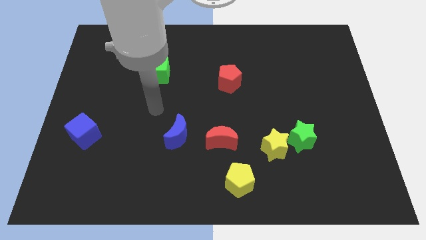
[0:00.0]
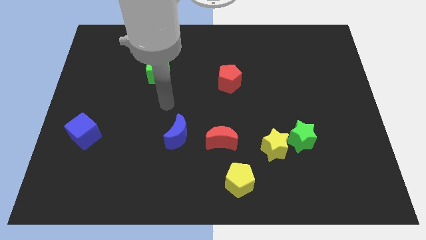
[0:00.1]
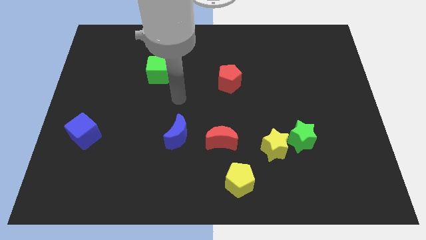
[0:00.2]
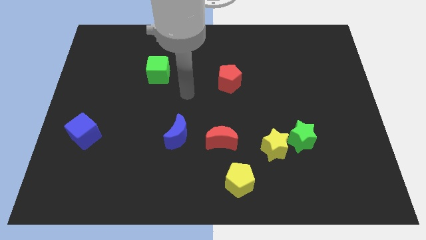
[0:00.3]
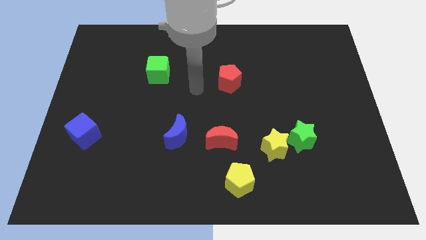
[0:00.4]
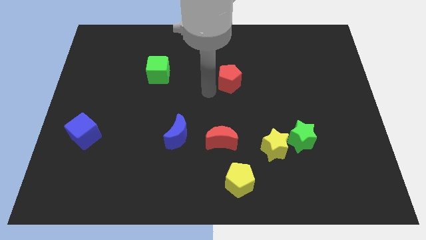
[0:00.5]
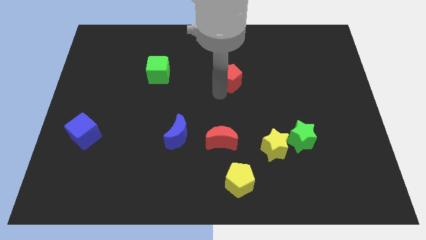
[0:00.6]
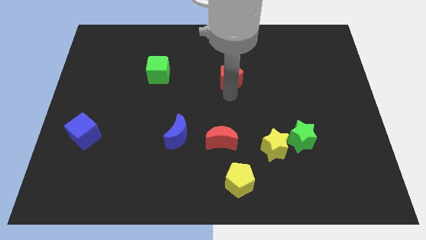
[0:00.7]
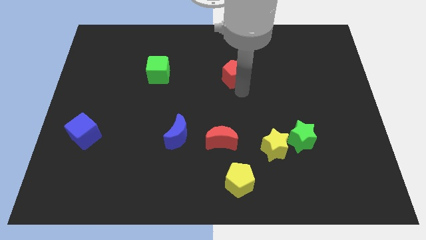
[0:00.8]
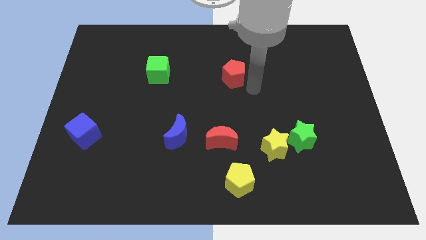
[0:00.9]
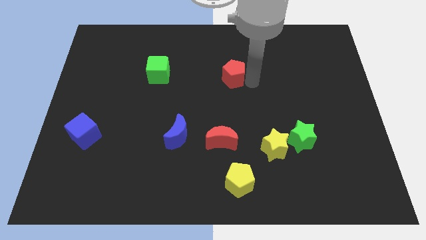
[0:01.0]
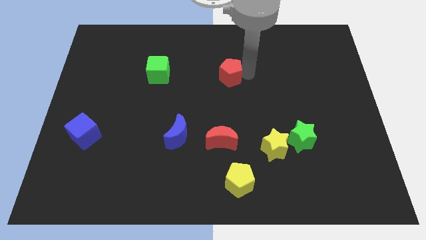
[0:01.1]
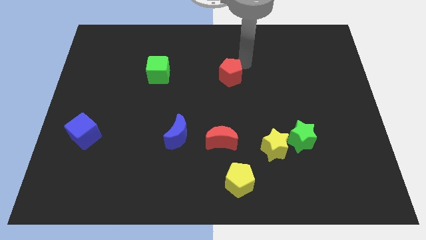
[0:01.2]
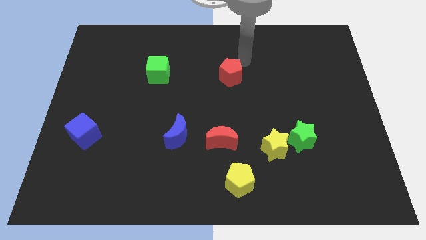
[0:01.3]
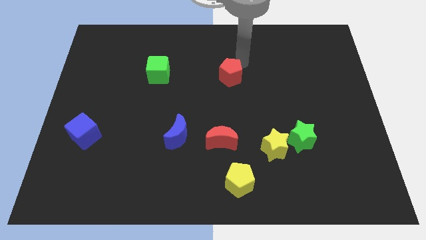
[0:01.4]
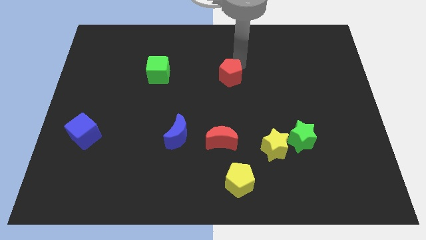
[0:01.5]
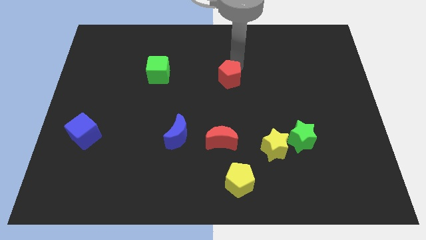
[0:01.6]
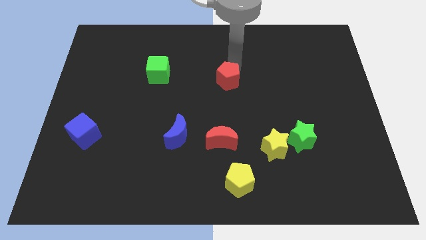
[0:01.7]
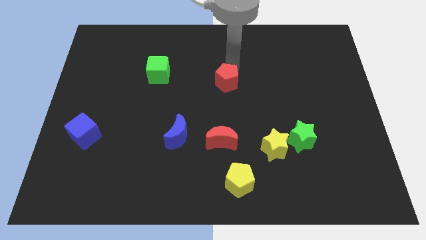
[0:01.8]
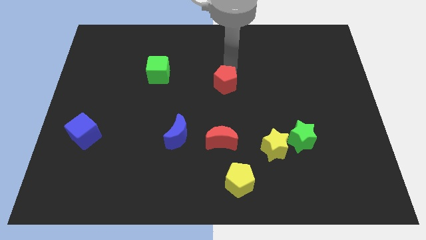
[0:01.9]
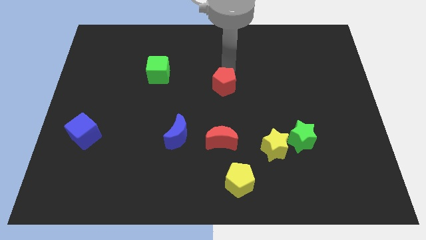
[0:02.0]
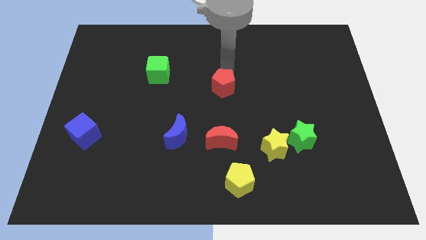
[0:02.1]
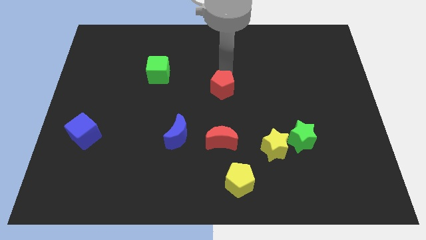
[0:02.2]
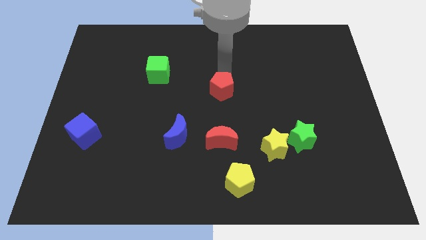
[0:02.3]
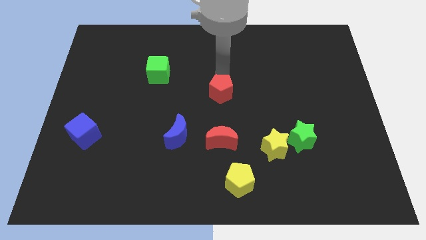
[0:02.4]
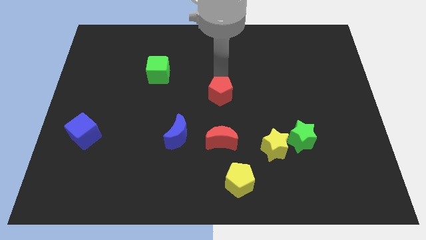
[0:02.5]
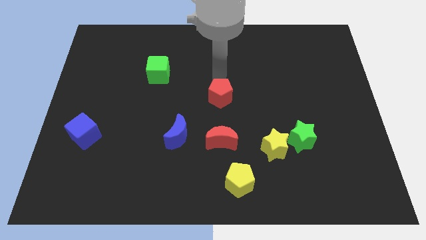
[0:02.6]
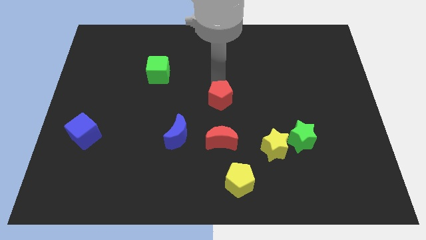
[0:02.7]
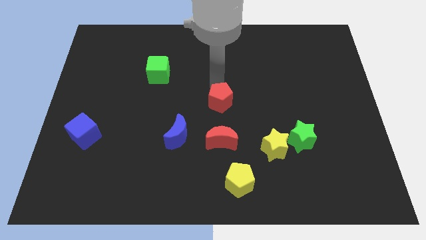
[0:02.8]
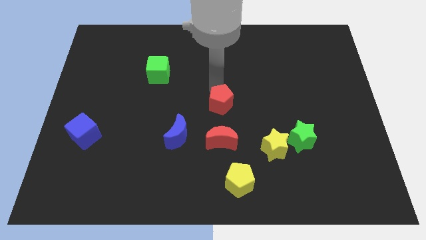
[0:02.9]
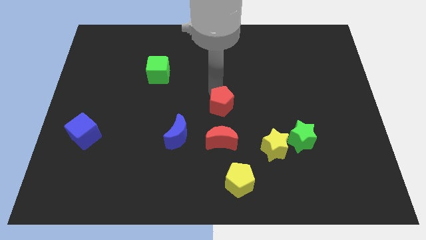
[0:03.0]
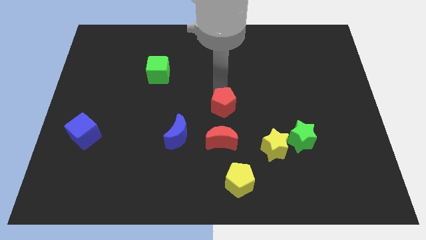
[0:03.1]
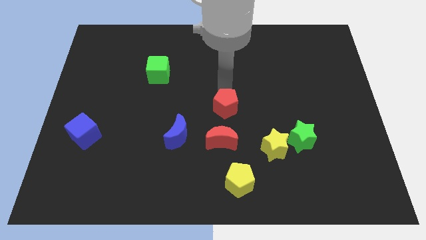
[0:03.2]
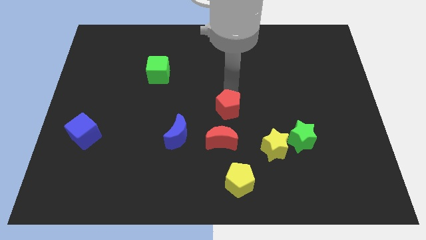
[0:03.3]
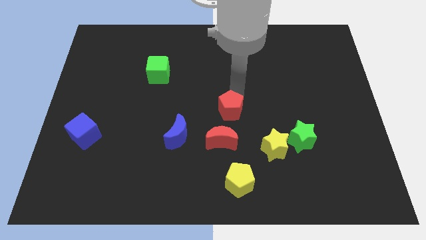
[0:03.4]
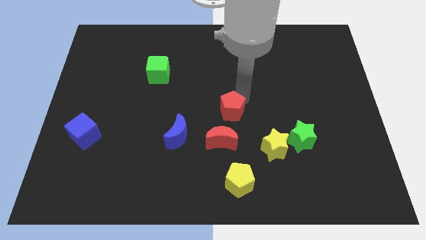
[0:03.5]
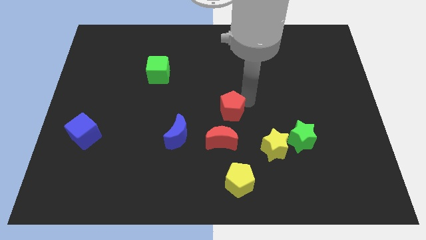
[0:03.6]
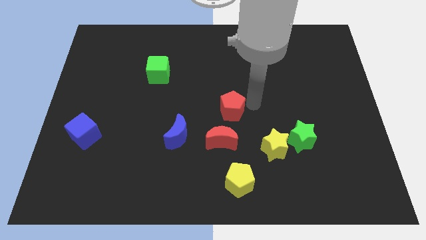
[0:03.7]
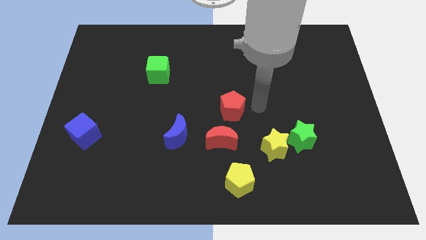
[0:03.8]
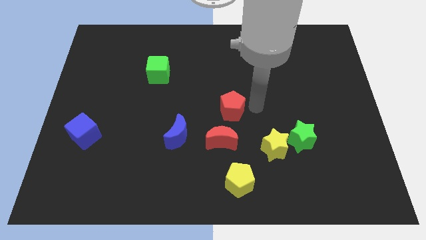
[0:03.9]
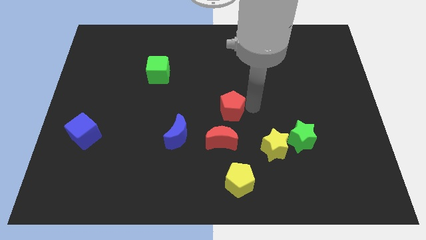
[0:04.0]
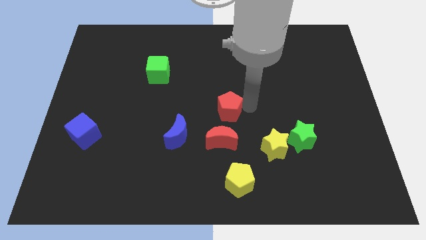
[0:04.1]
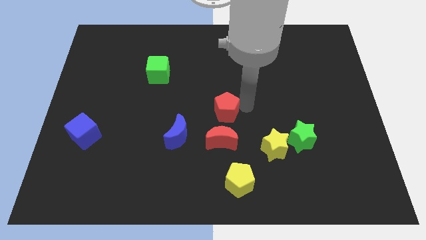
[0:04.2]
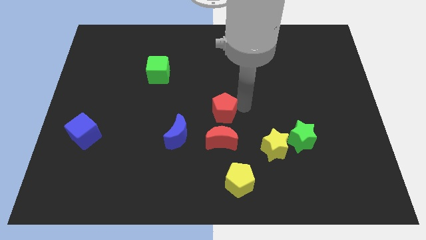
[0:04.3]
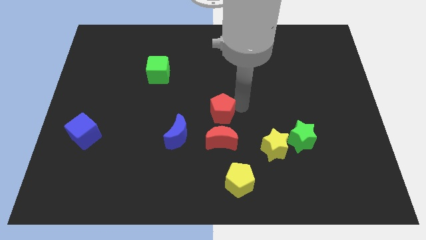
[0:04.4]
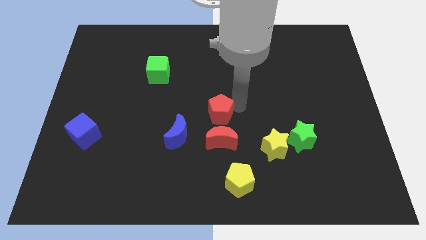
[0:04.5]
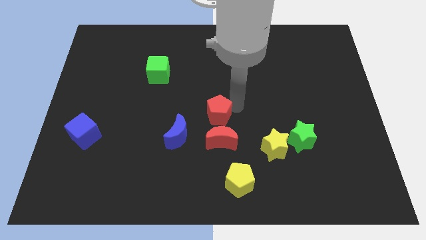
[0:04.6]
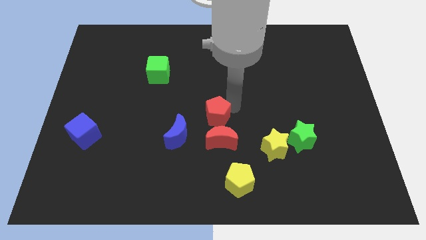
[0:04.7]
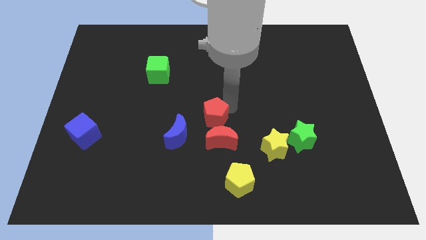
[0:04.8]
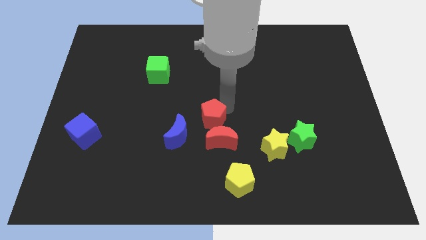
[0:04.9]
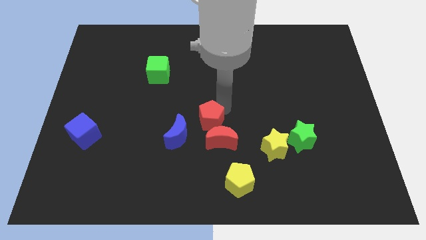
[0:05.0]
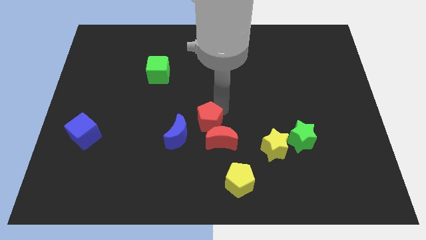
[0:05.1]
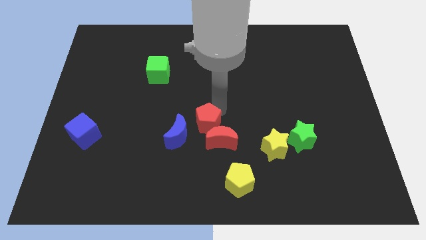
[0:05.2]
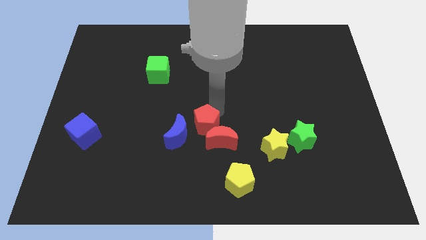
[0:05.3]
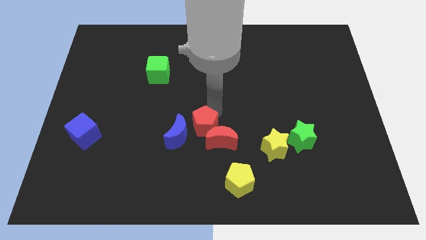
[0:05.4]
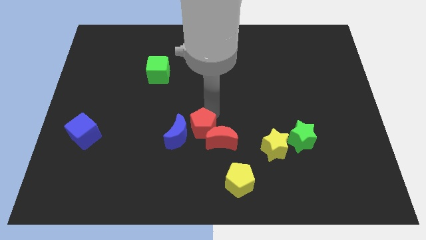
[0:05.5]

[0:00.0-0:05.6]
push the red pentagon towards the blue moon

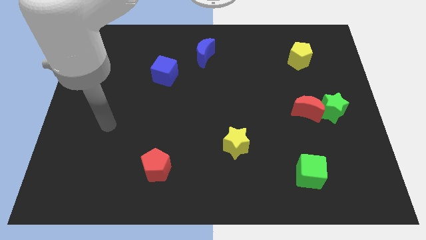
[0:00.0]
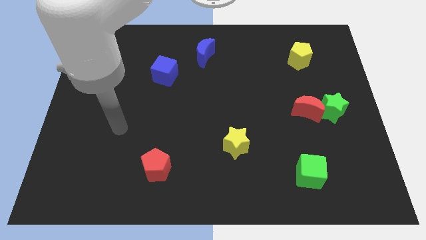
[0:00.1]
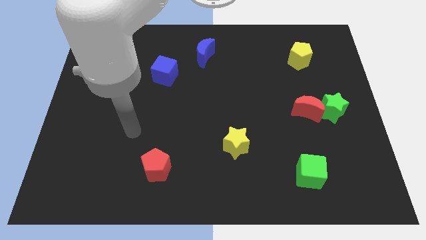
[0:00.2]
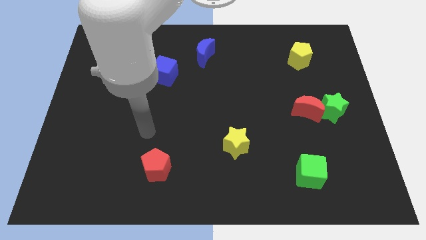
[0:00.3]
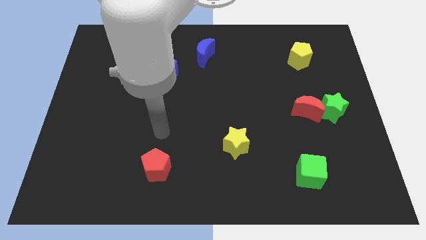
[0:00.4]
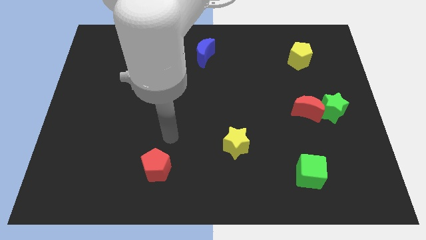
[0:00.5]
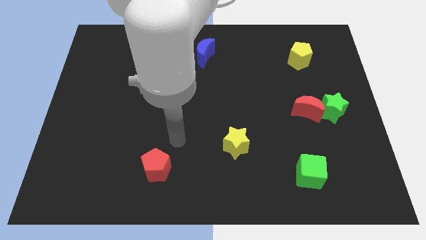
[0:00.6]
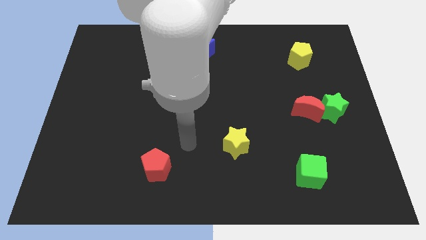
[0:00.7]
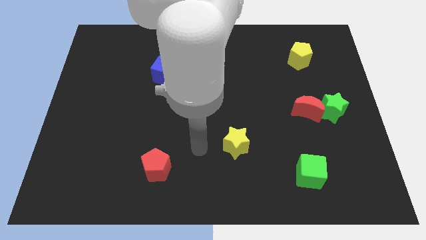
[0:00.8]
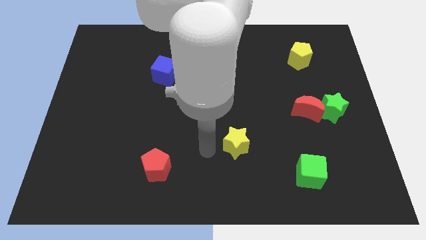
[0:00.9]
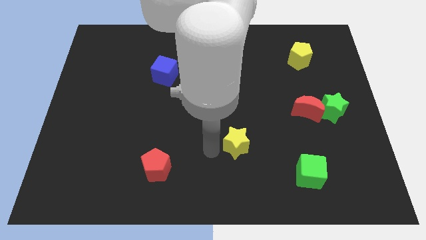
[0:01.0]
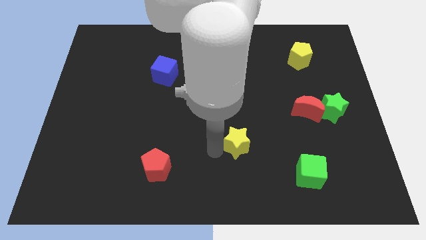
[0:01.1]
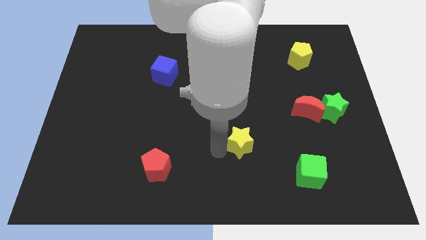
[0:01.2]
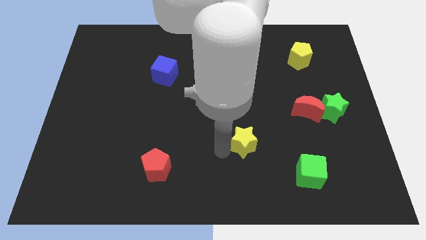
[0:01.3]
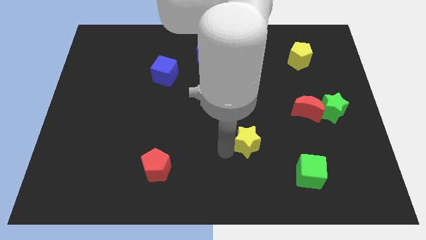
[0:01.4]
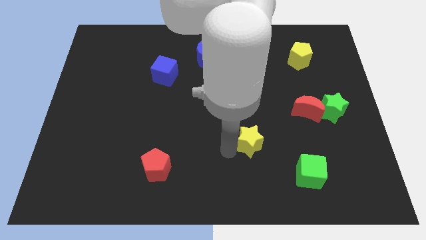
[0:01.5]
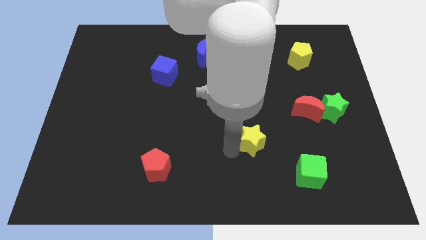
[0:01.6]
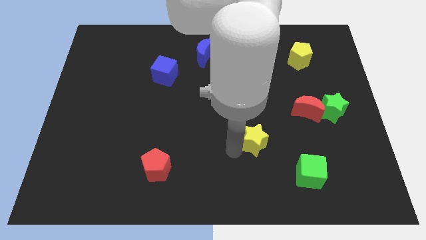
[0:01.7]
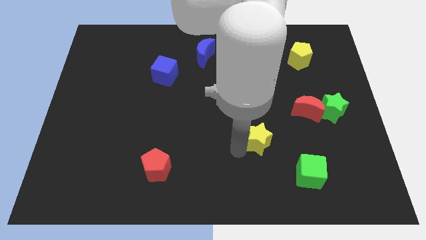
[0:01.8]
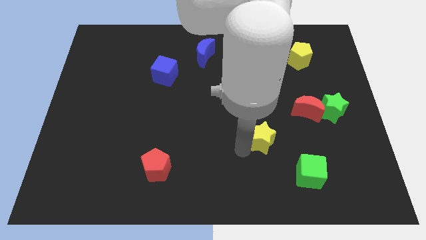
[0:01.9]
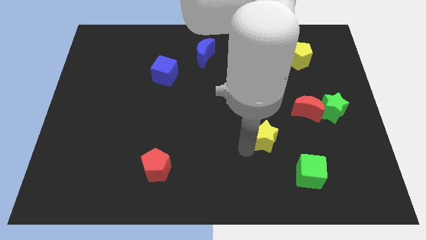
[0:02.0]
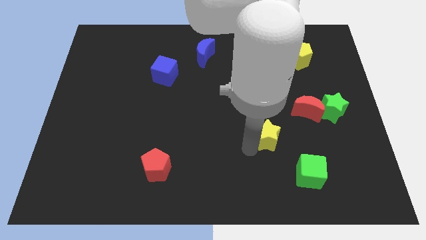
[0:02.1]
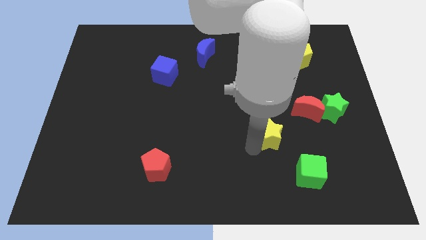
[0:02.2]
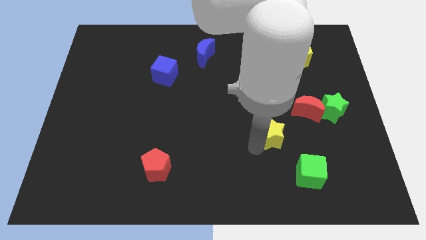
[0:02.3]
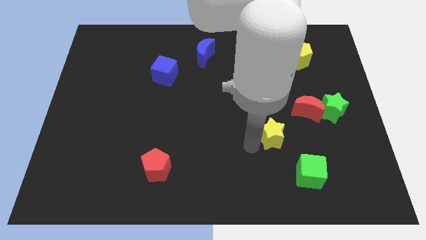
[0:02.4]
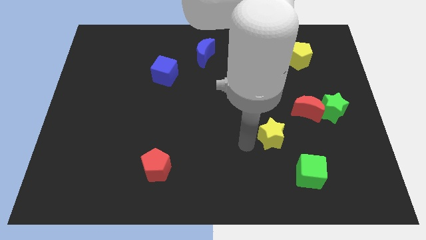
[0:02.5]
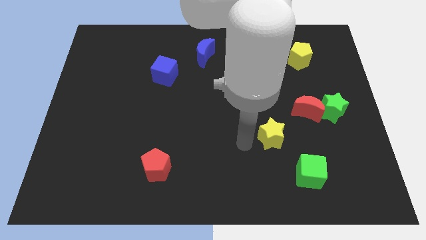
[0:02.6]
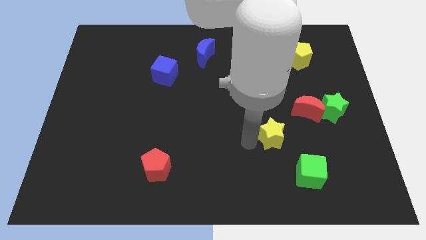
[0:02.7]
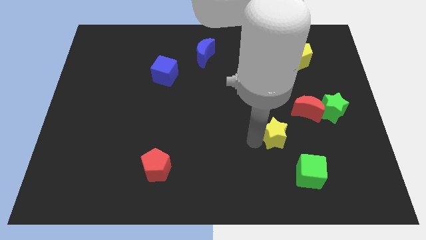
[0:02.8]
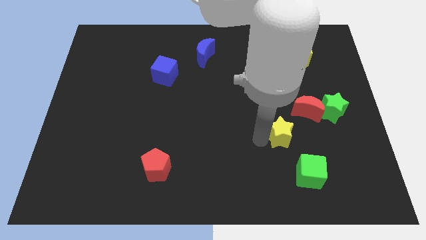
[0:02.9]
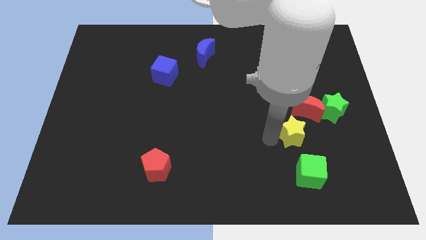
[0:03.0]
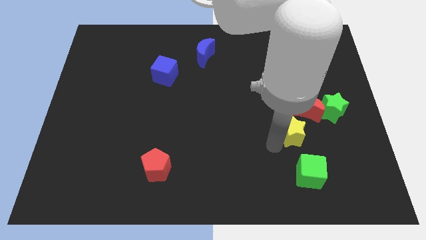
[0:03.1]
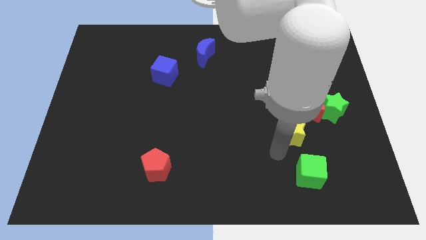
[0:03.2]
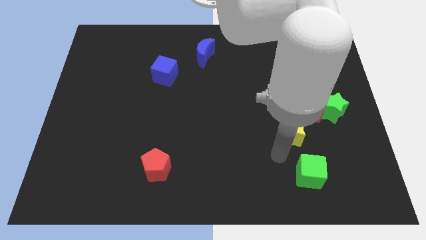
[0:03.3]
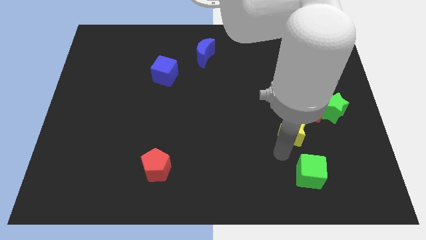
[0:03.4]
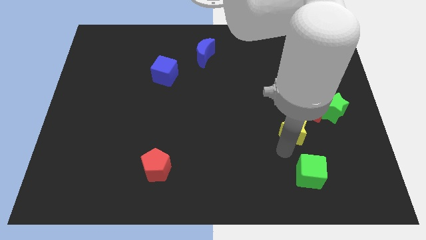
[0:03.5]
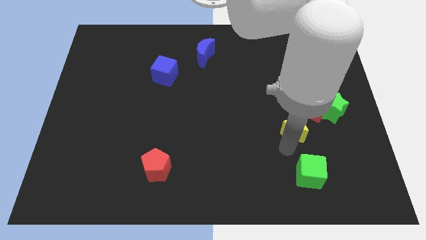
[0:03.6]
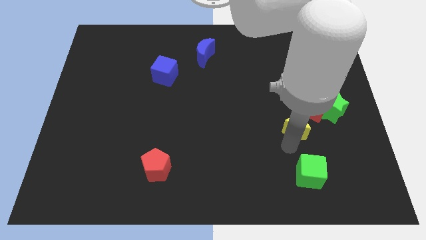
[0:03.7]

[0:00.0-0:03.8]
push the yellow star close to the red moon
